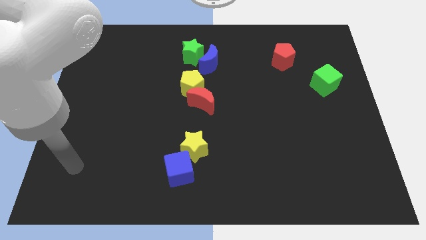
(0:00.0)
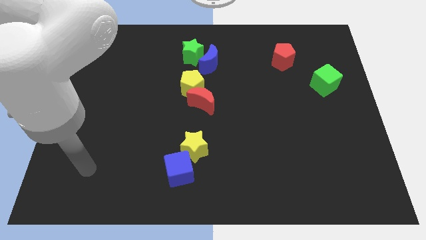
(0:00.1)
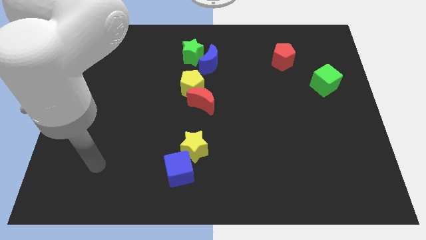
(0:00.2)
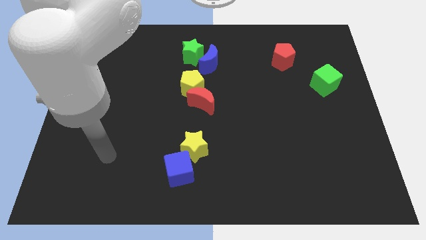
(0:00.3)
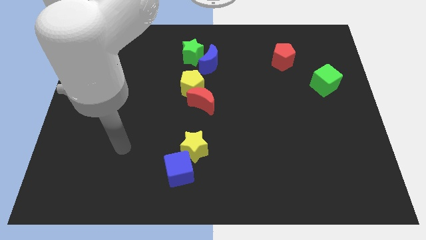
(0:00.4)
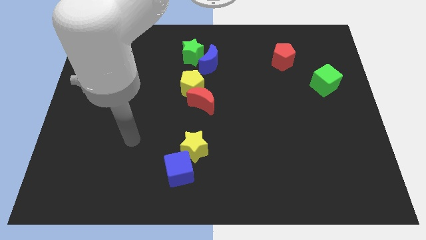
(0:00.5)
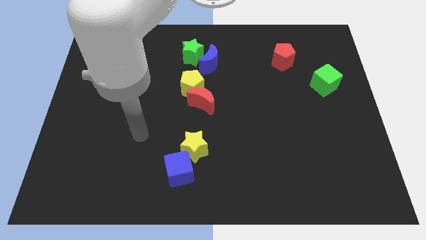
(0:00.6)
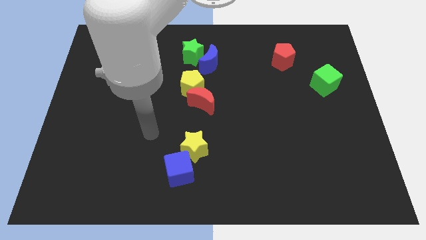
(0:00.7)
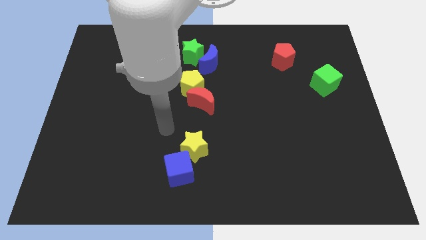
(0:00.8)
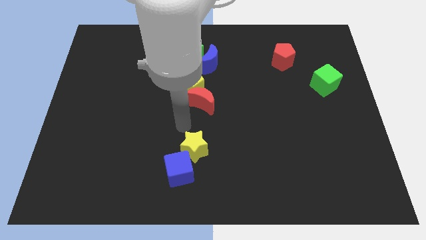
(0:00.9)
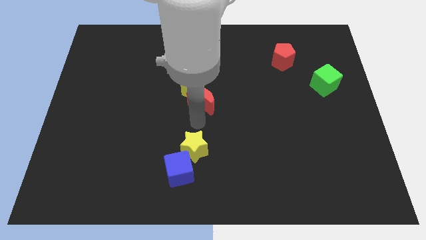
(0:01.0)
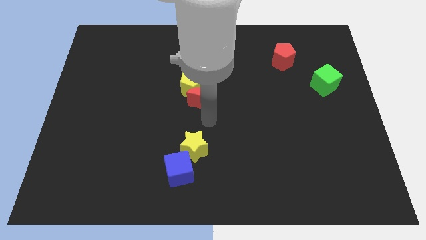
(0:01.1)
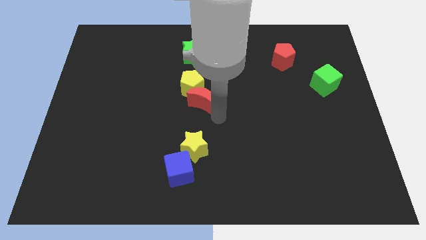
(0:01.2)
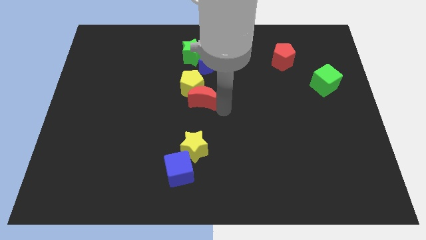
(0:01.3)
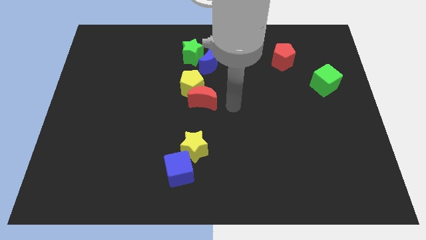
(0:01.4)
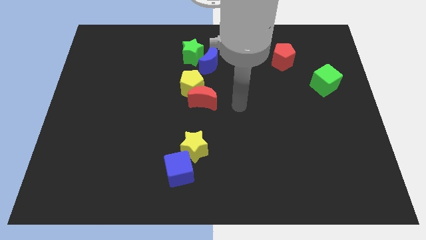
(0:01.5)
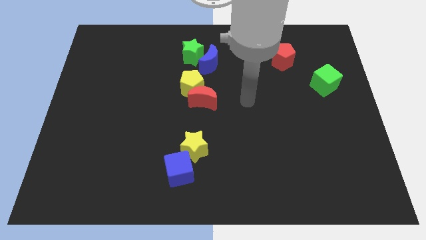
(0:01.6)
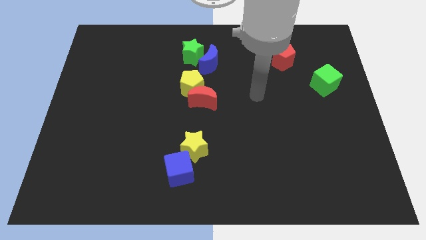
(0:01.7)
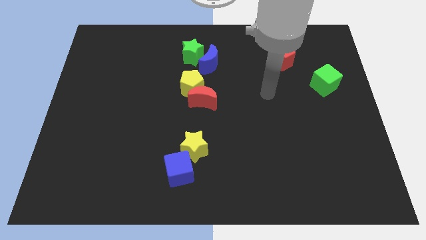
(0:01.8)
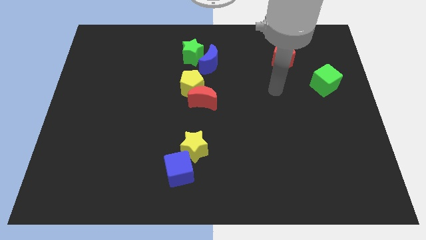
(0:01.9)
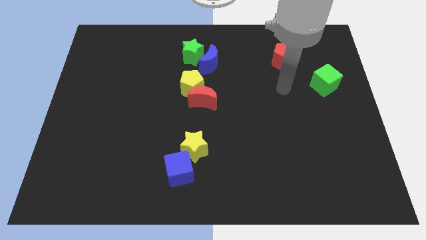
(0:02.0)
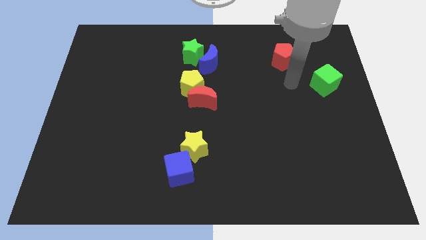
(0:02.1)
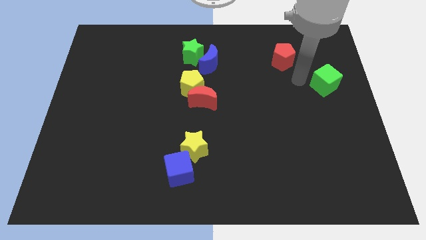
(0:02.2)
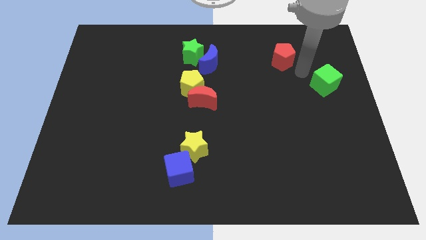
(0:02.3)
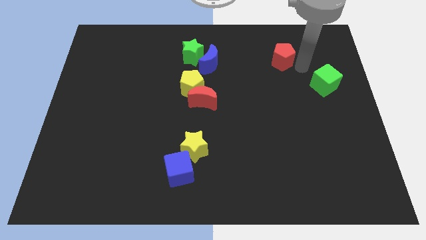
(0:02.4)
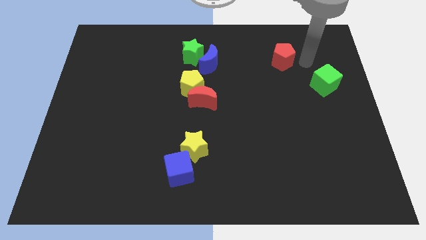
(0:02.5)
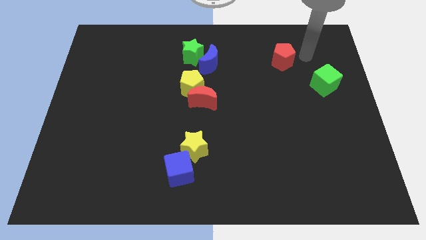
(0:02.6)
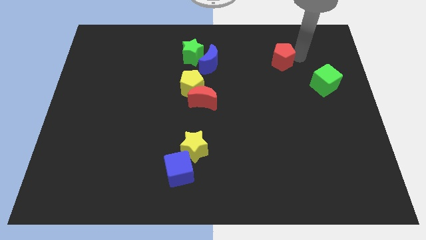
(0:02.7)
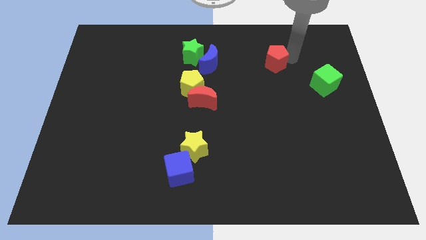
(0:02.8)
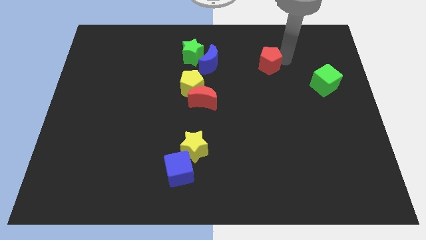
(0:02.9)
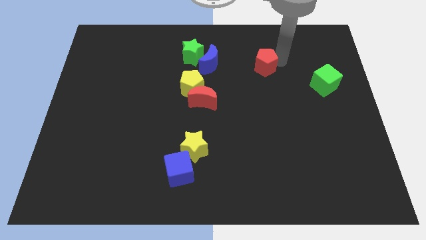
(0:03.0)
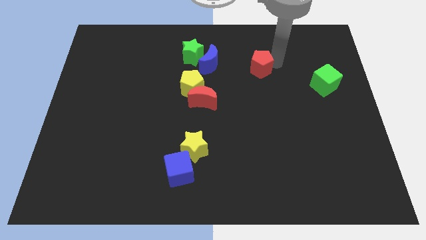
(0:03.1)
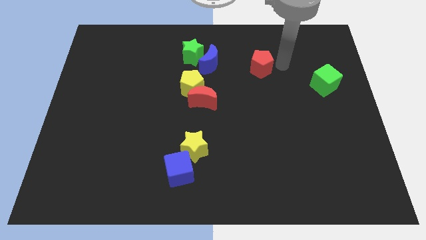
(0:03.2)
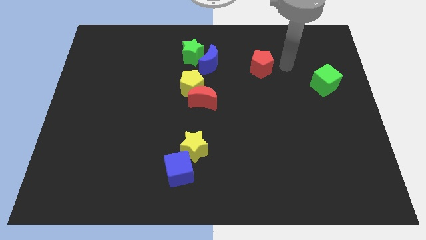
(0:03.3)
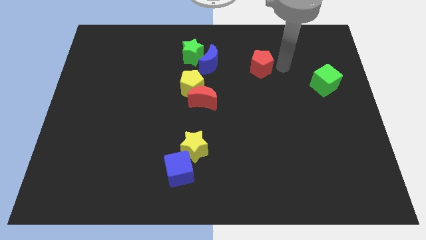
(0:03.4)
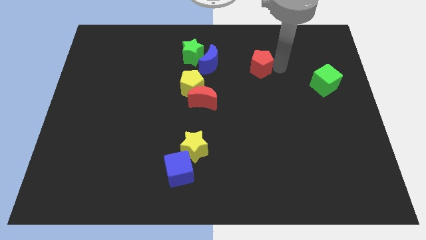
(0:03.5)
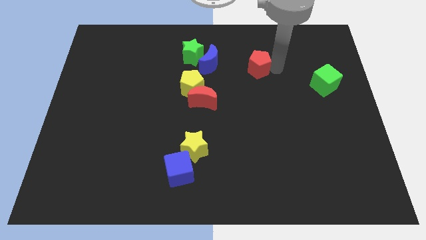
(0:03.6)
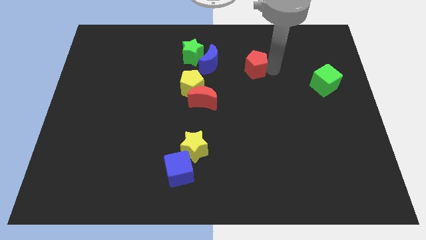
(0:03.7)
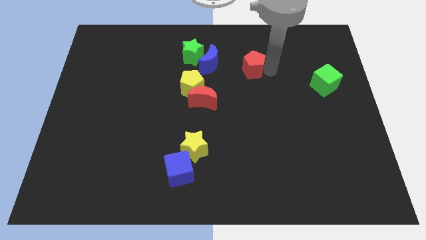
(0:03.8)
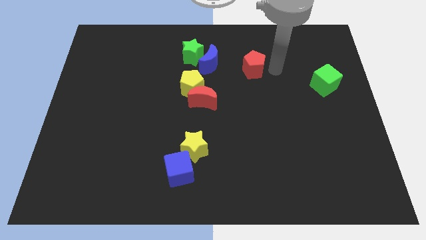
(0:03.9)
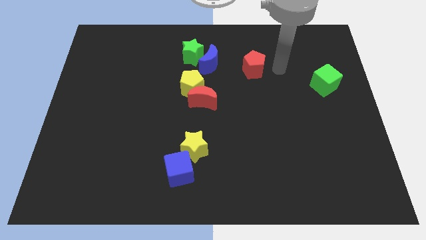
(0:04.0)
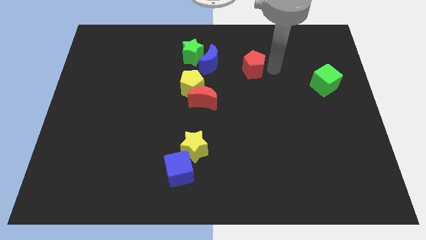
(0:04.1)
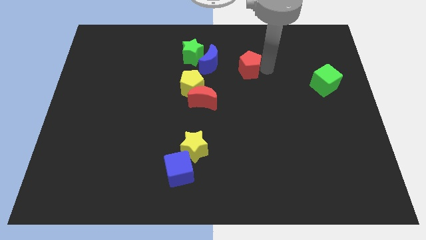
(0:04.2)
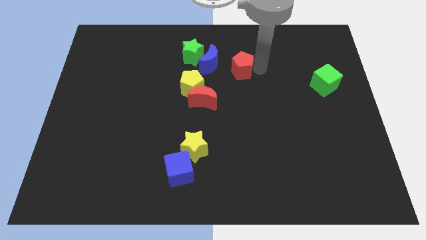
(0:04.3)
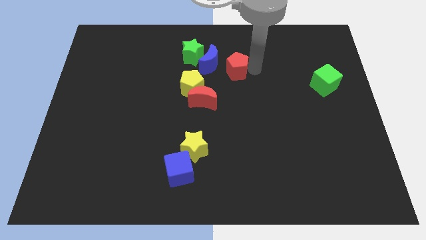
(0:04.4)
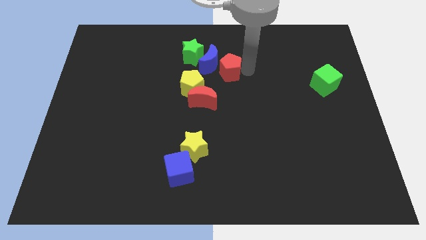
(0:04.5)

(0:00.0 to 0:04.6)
push the red pentagon towards the blue moon

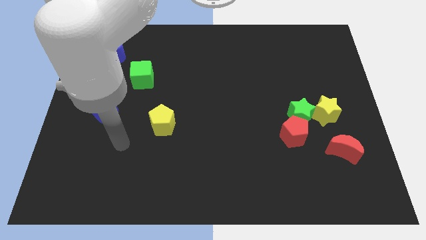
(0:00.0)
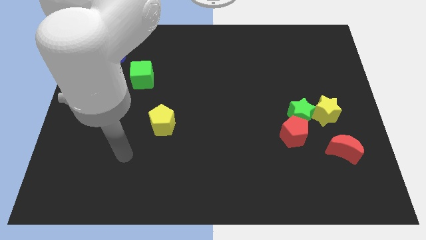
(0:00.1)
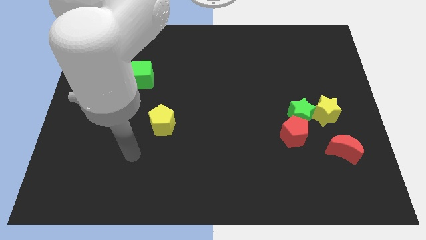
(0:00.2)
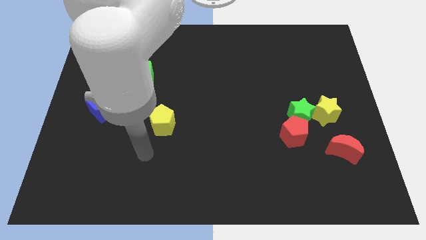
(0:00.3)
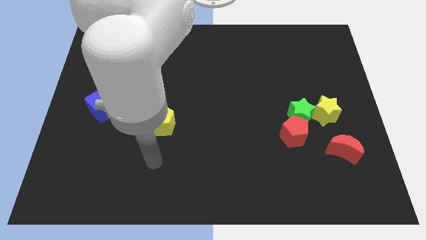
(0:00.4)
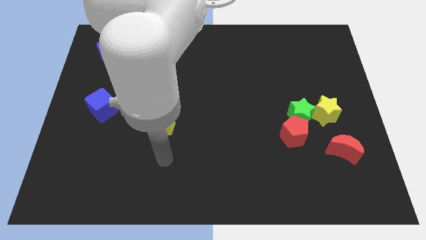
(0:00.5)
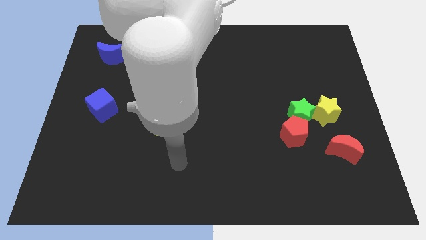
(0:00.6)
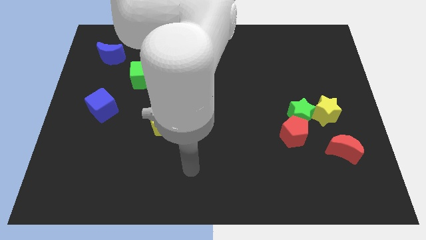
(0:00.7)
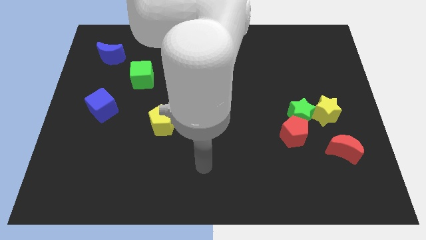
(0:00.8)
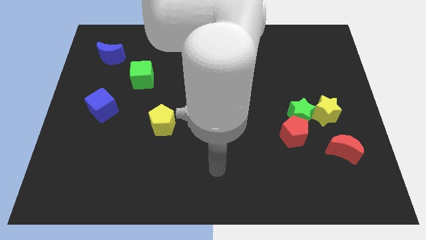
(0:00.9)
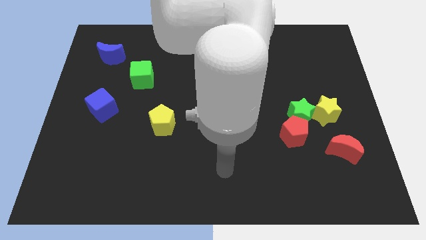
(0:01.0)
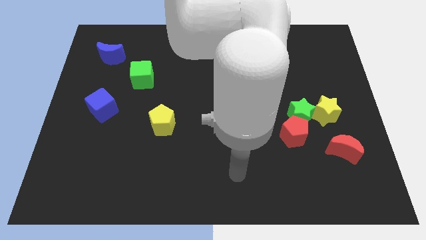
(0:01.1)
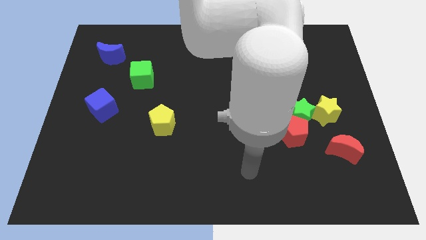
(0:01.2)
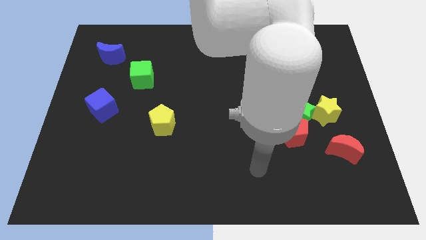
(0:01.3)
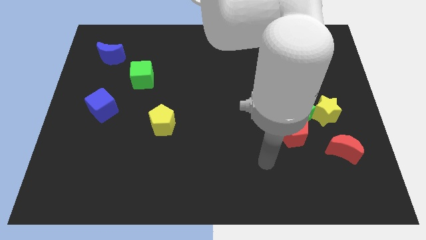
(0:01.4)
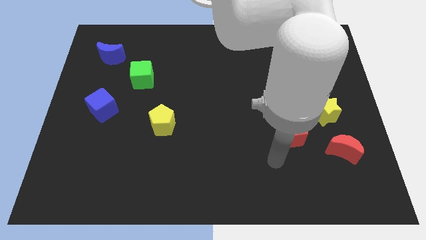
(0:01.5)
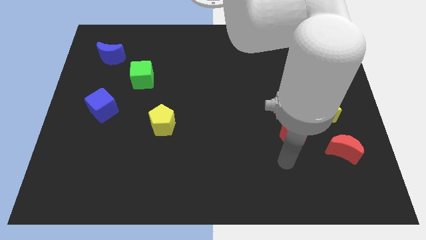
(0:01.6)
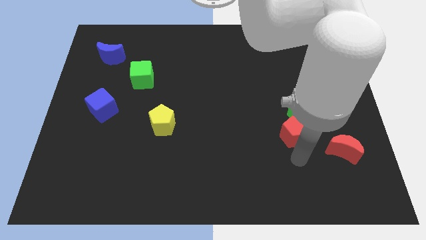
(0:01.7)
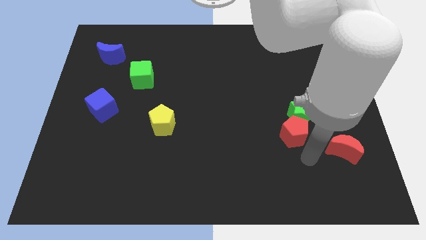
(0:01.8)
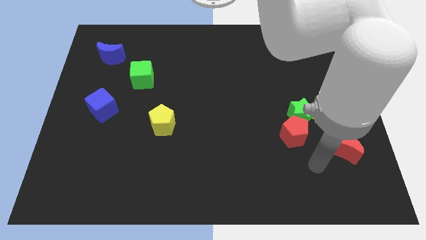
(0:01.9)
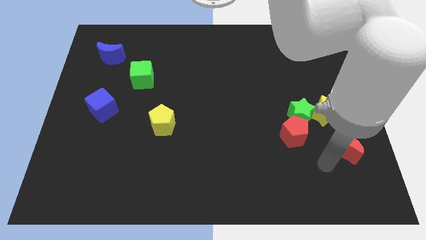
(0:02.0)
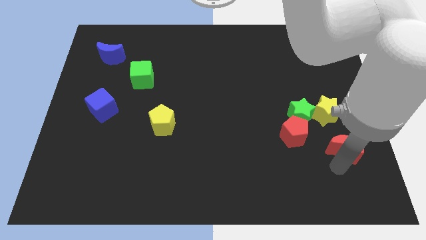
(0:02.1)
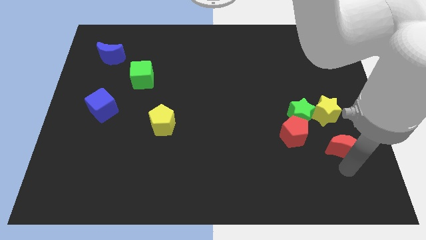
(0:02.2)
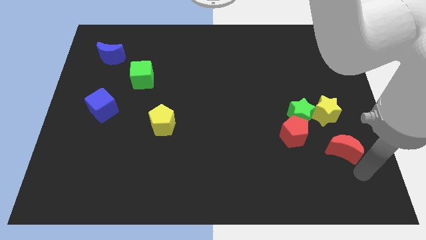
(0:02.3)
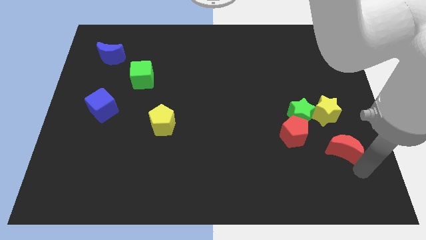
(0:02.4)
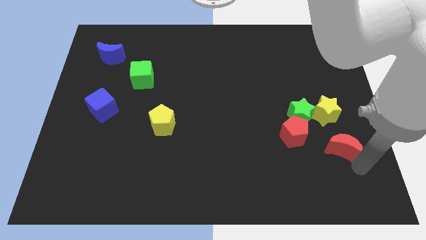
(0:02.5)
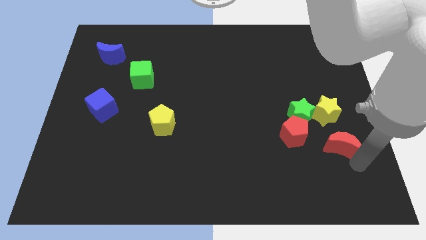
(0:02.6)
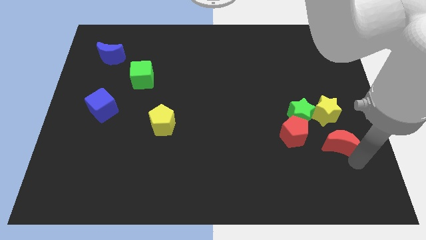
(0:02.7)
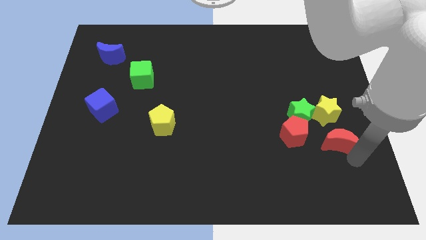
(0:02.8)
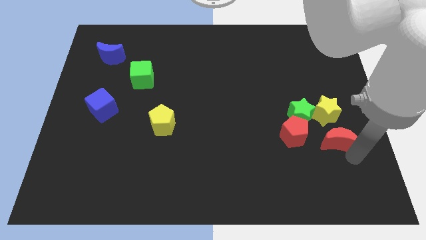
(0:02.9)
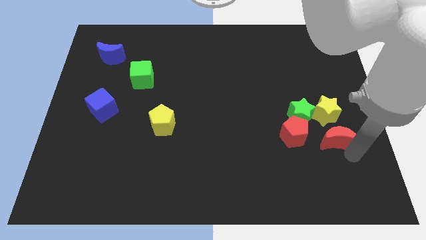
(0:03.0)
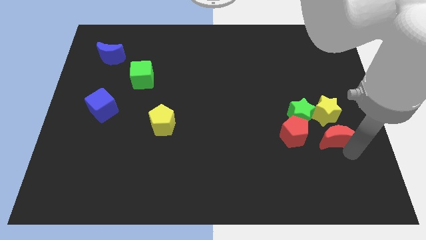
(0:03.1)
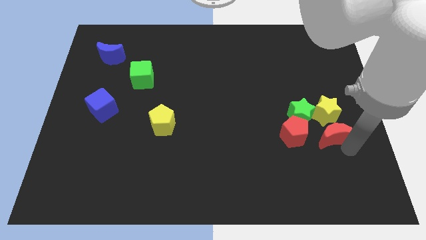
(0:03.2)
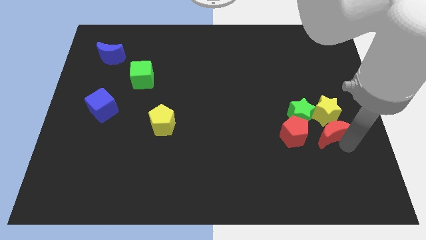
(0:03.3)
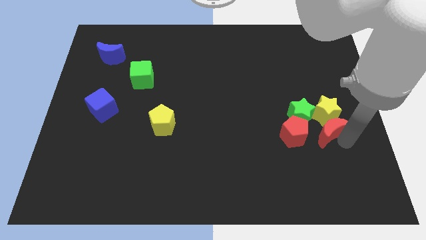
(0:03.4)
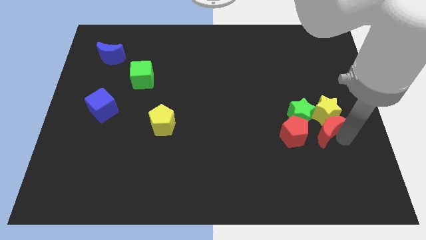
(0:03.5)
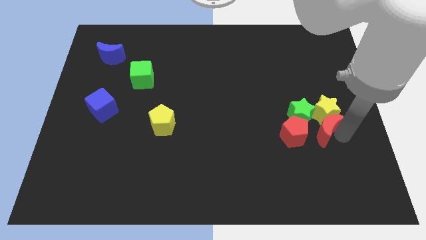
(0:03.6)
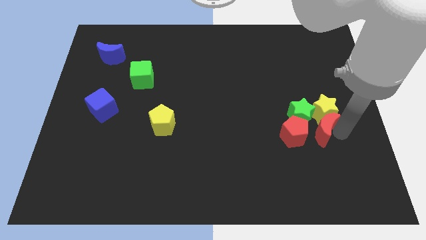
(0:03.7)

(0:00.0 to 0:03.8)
push the red moon to the green star
